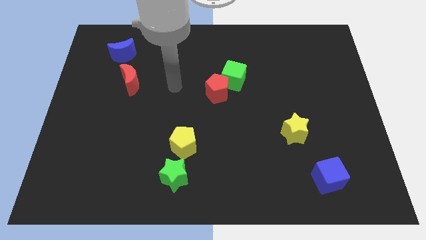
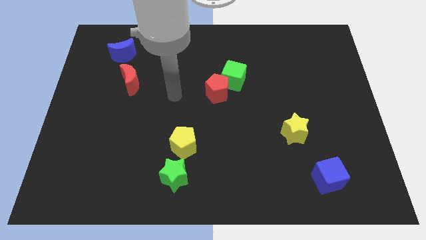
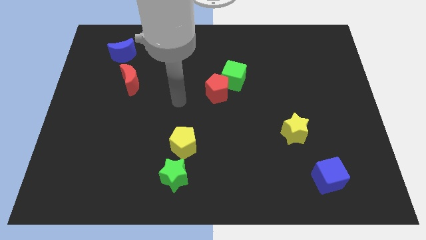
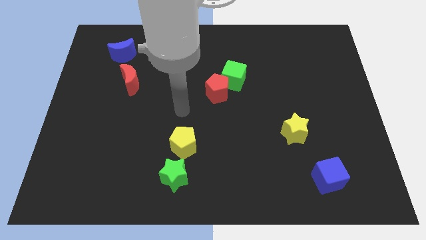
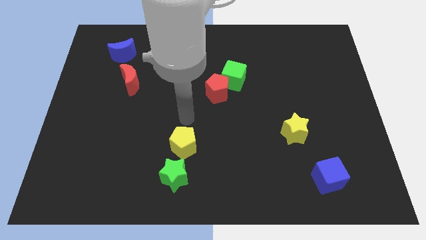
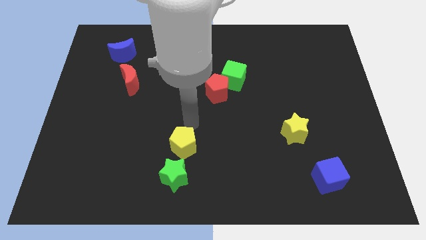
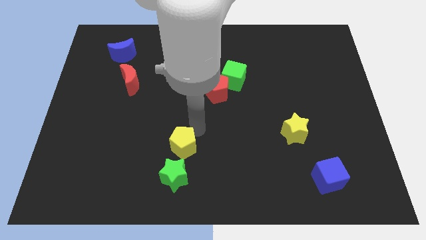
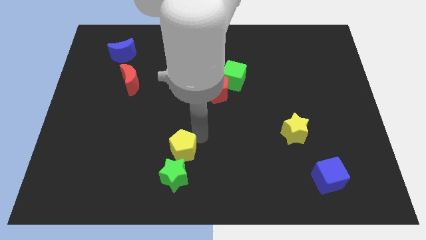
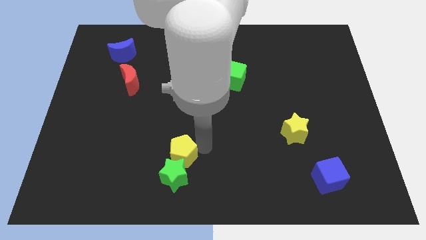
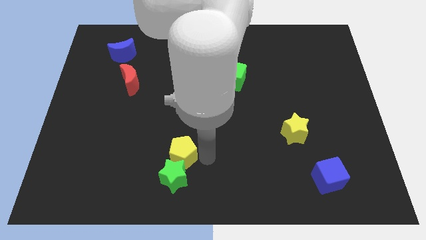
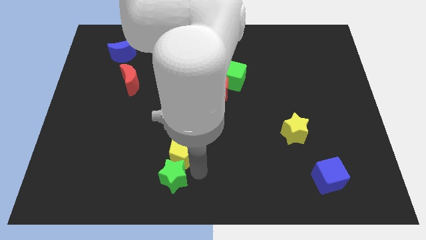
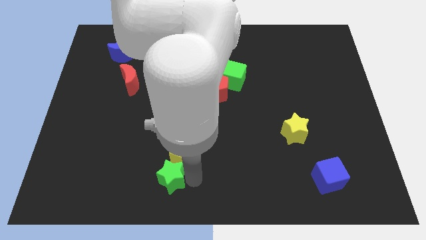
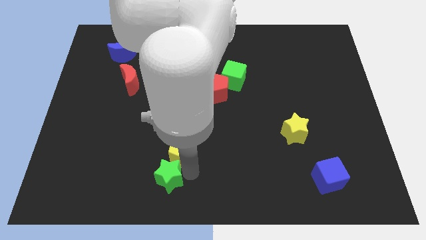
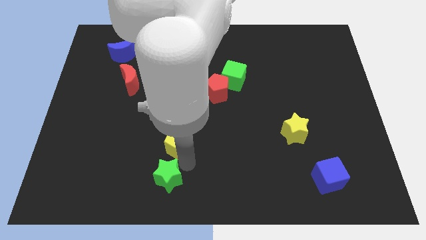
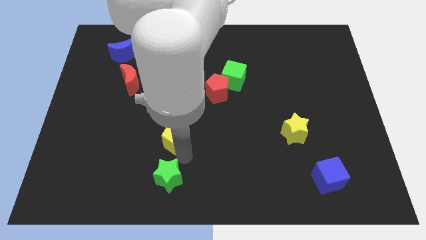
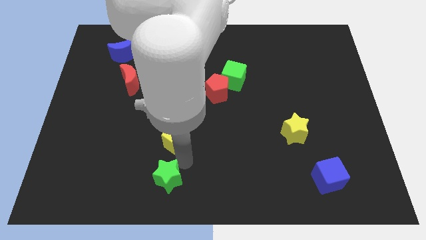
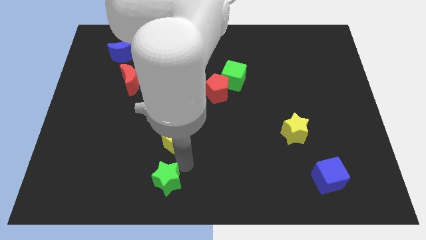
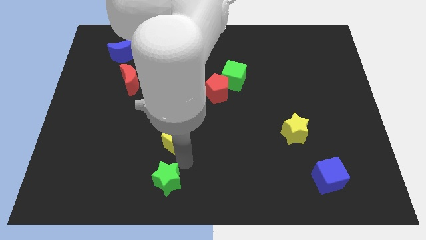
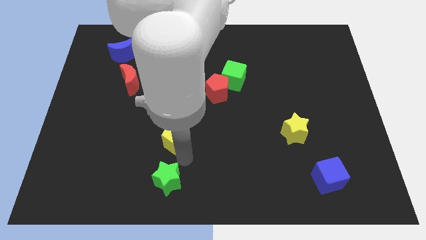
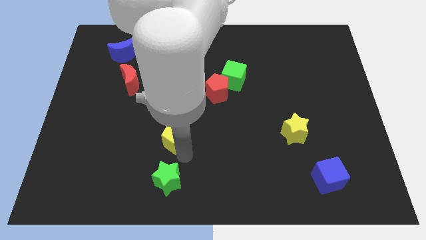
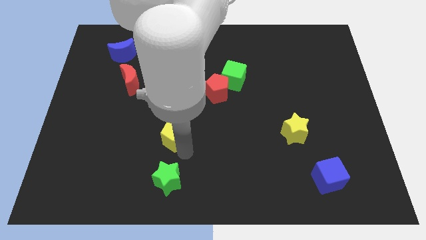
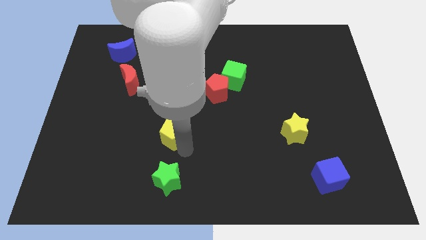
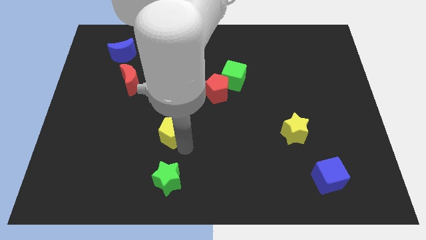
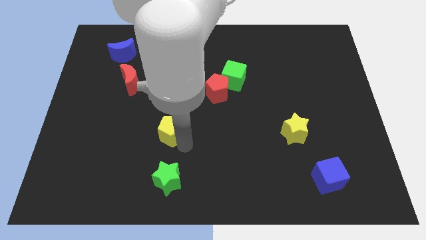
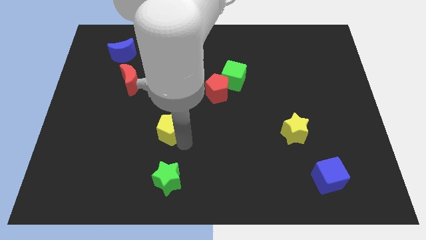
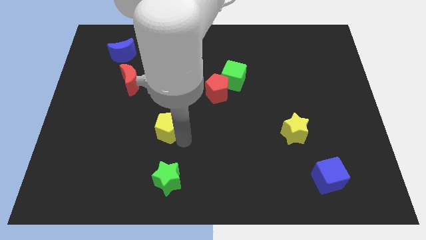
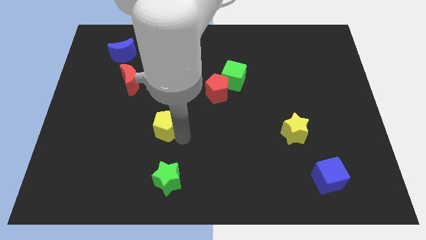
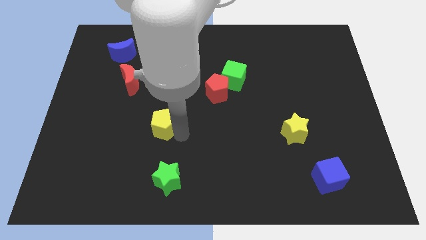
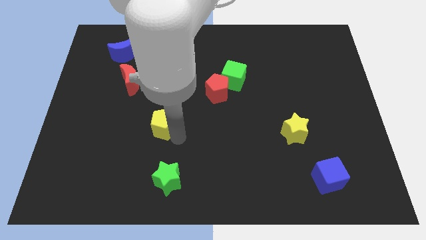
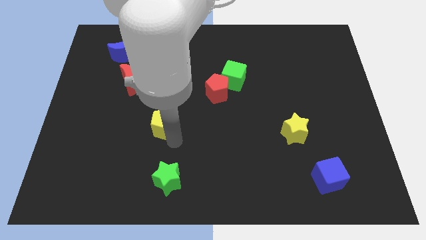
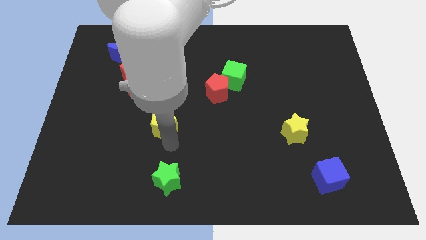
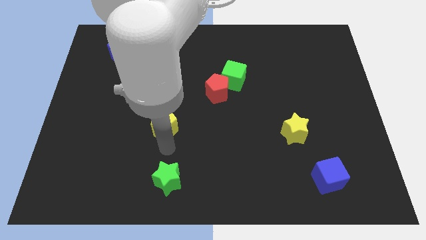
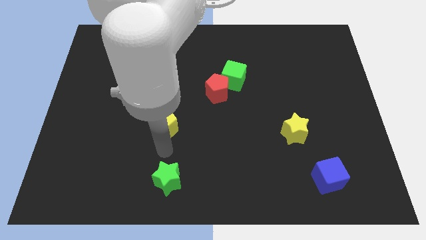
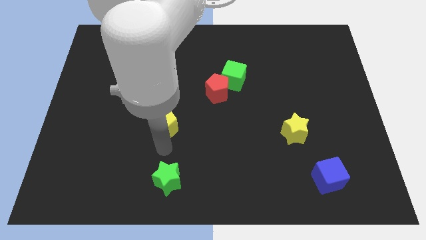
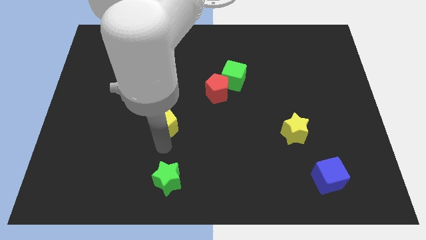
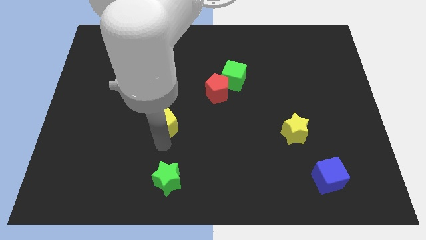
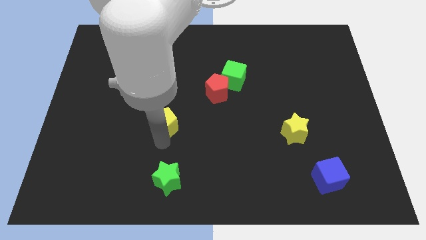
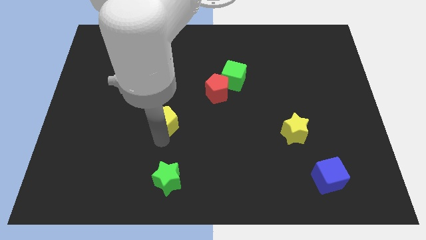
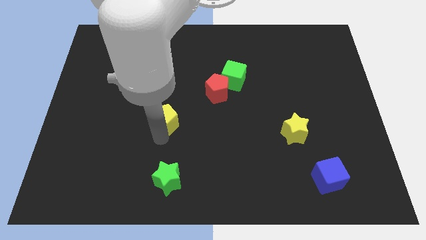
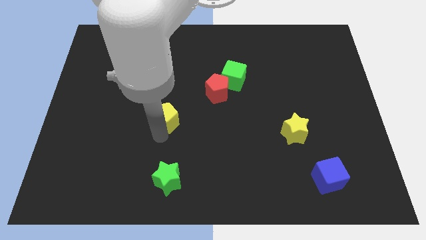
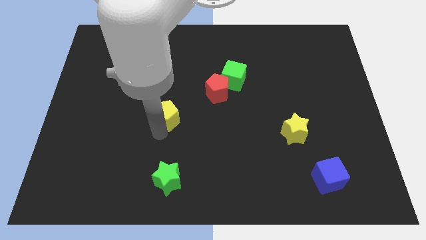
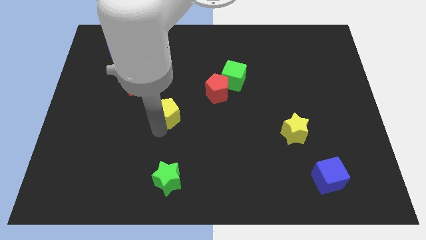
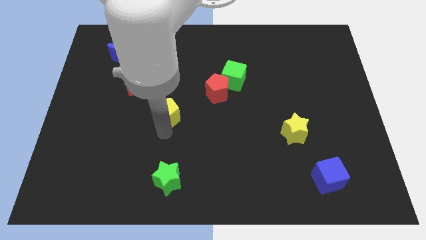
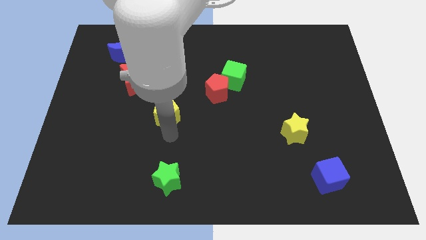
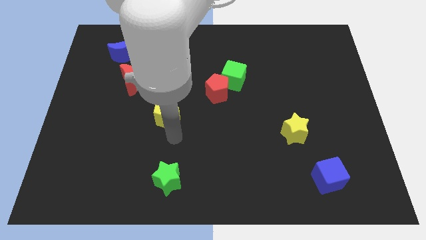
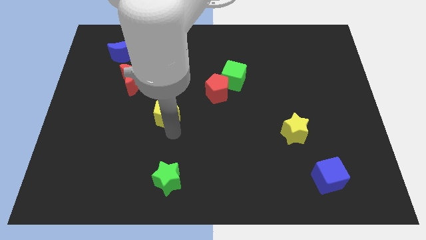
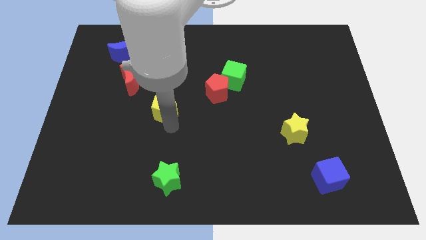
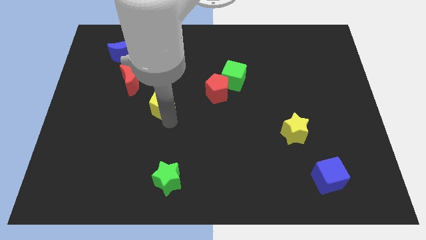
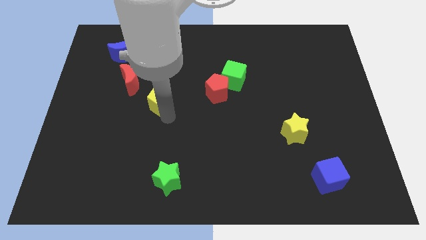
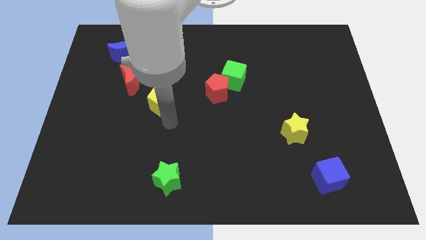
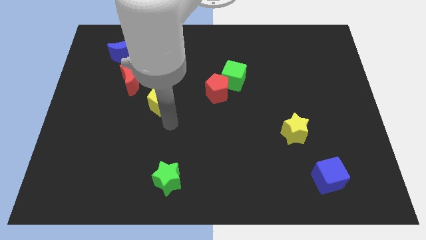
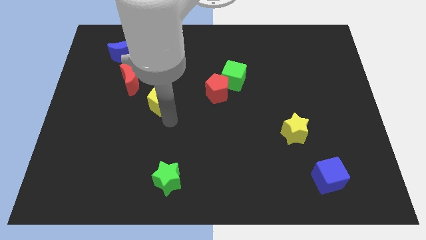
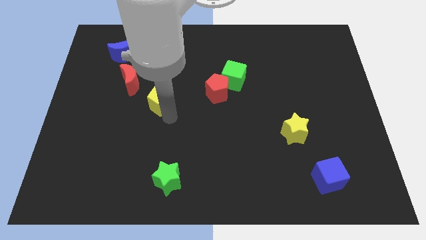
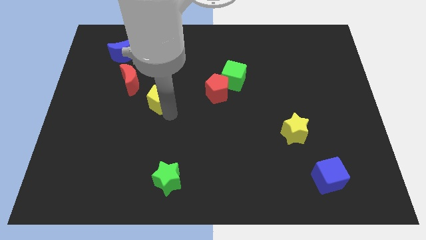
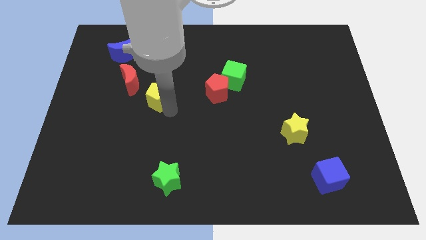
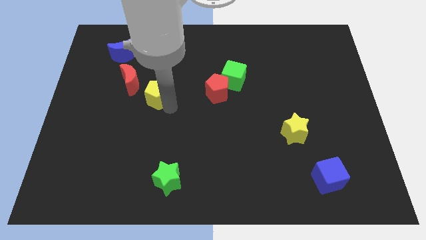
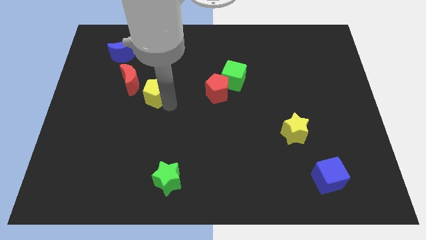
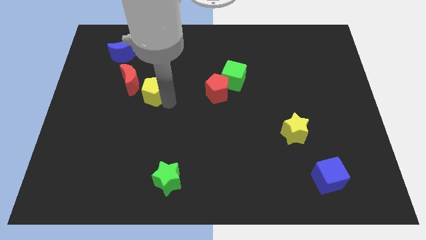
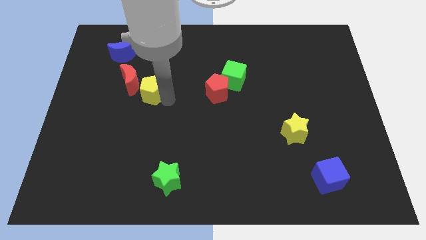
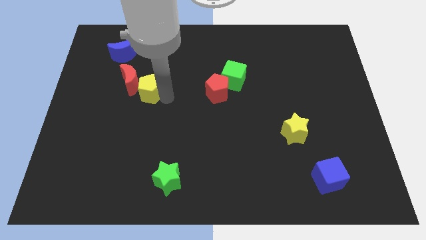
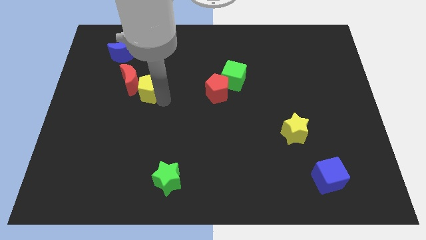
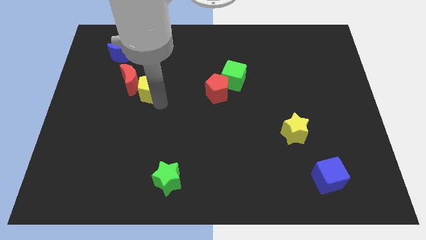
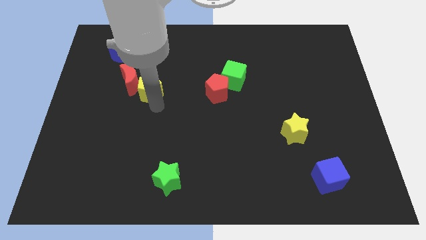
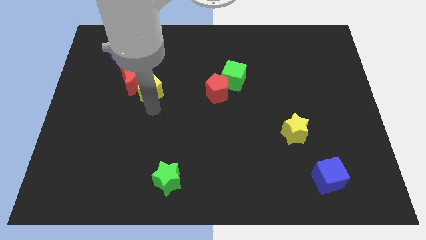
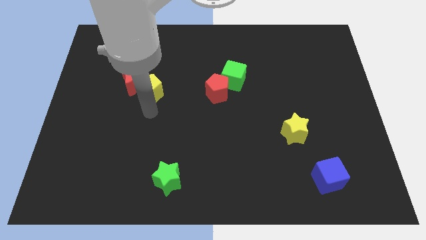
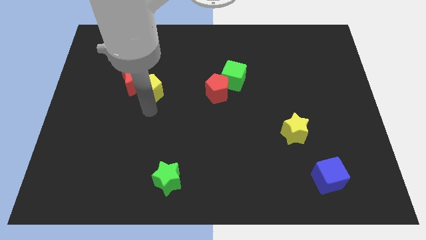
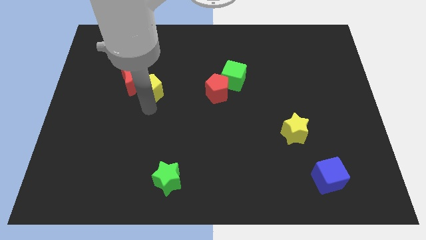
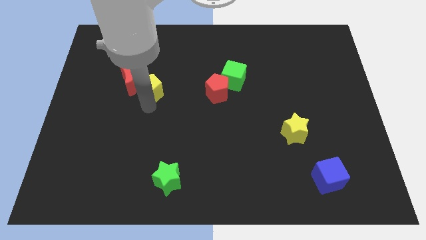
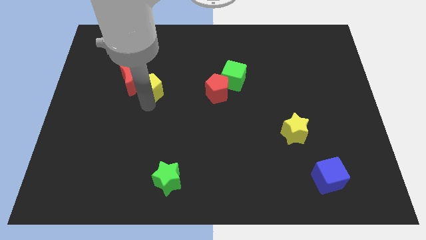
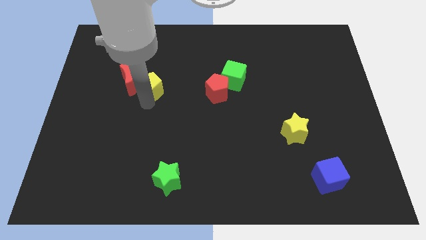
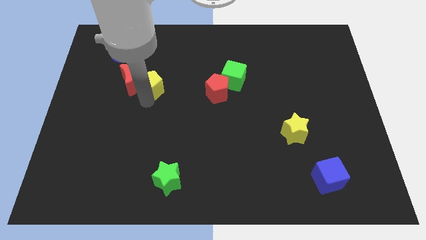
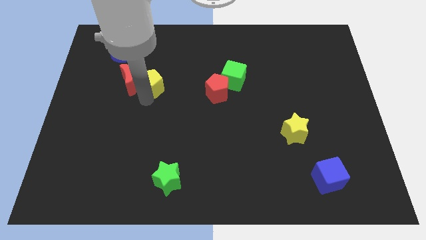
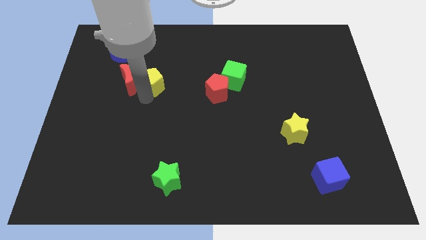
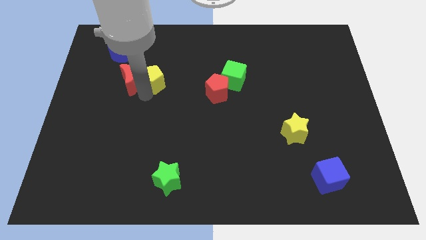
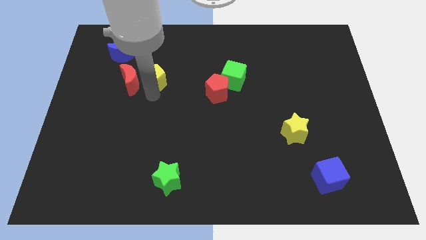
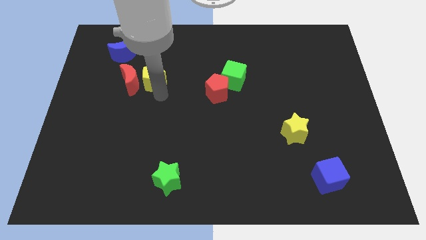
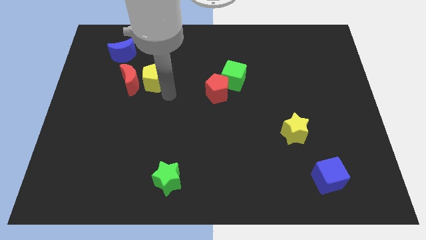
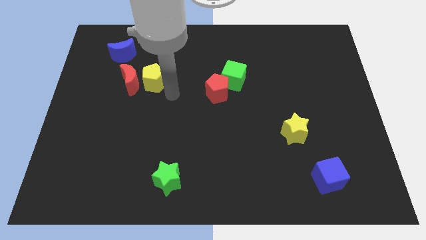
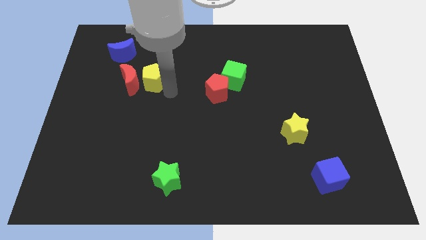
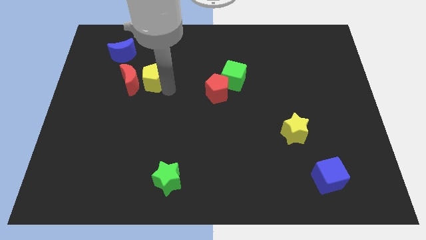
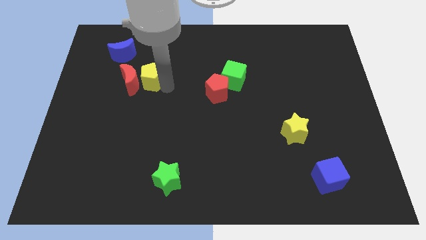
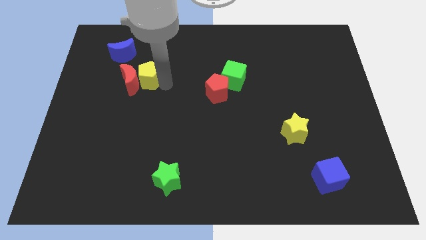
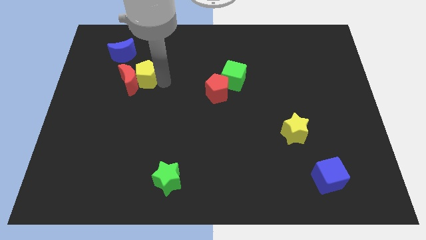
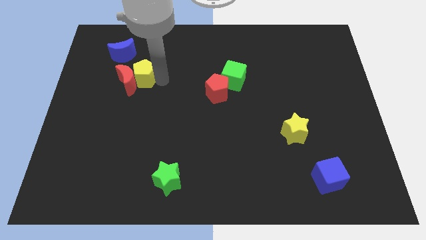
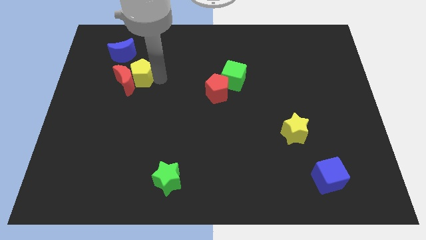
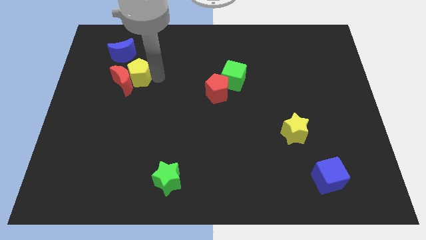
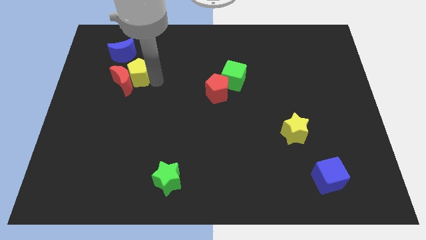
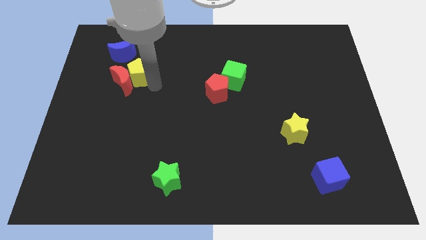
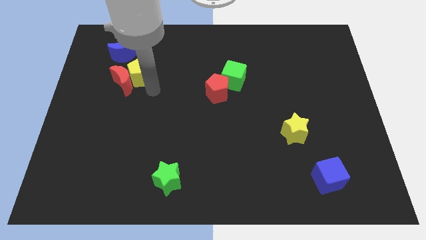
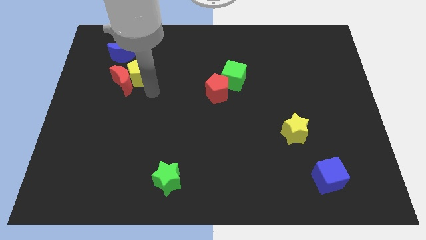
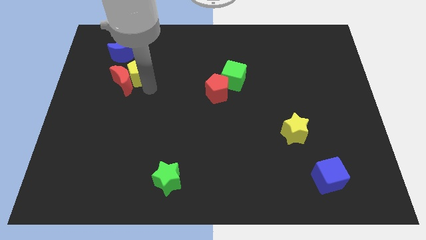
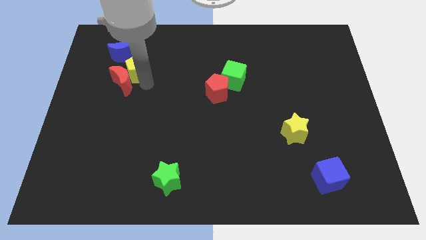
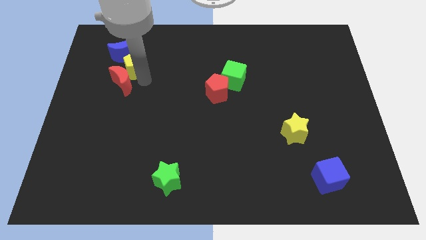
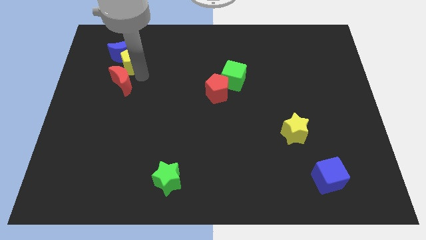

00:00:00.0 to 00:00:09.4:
move the yellow pentagon next to the blue moon
